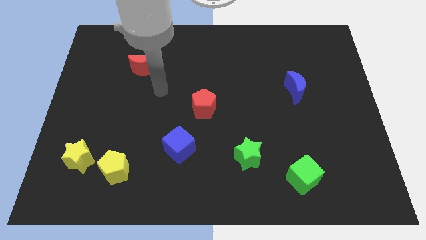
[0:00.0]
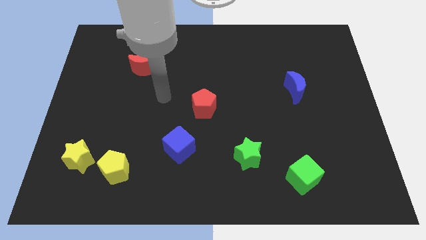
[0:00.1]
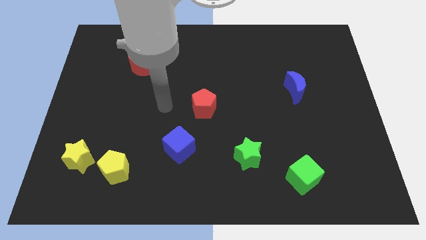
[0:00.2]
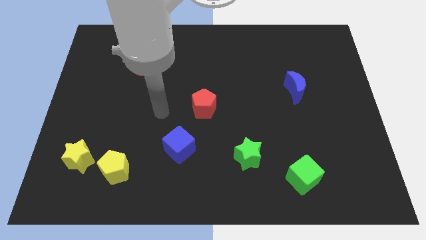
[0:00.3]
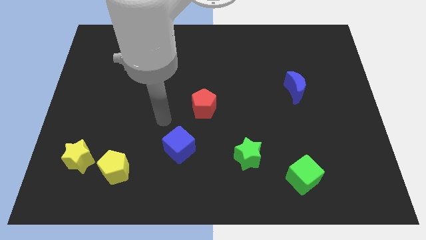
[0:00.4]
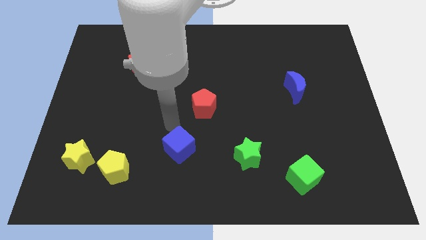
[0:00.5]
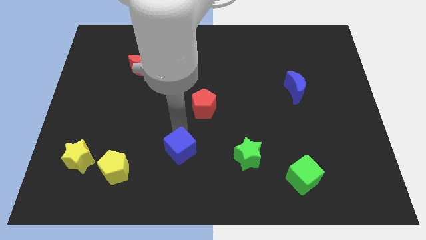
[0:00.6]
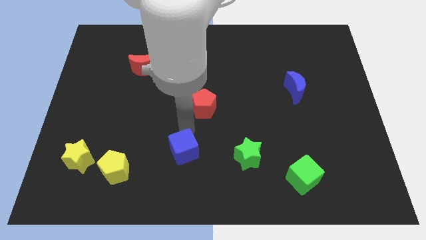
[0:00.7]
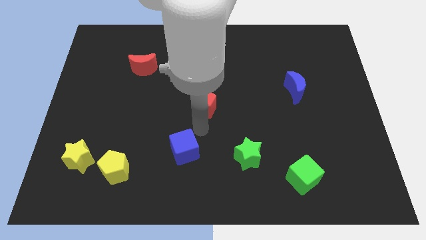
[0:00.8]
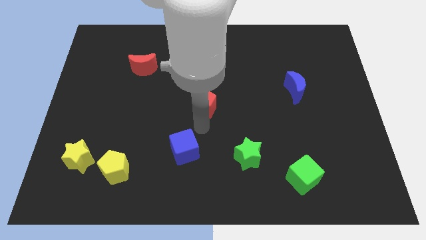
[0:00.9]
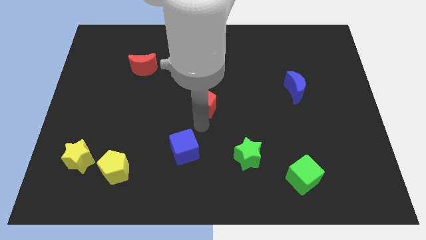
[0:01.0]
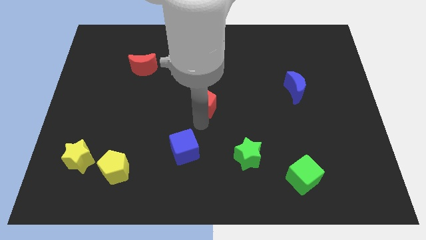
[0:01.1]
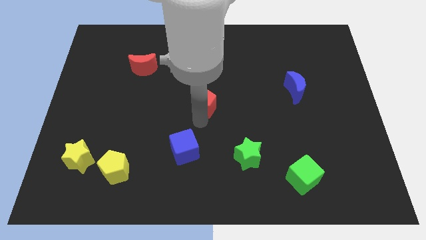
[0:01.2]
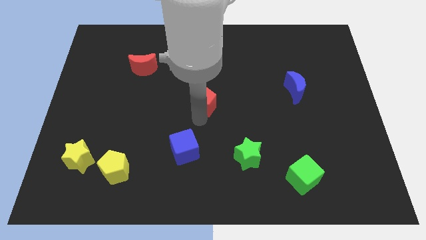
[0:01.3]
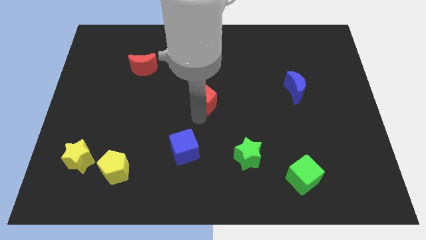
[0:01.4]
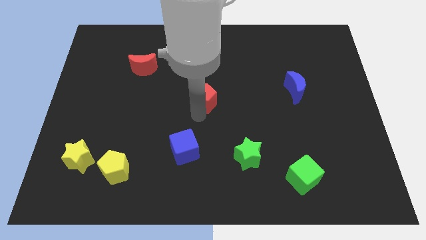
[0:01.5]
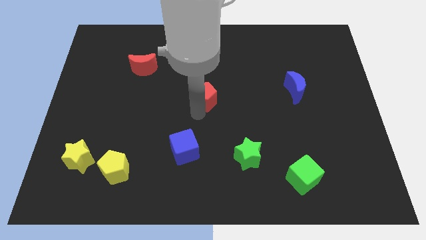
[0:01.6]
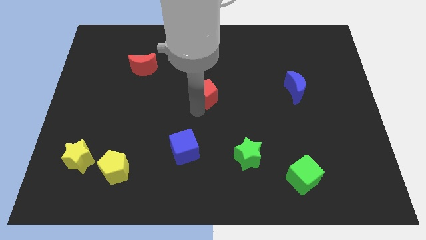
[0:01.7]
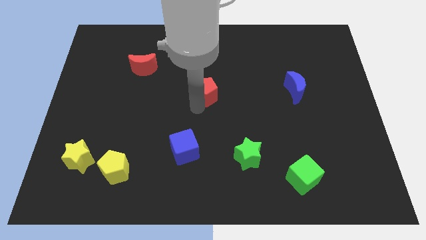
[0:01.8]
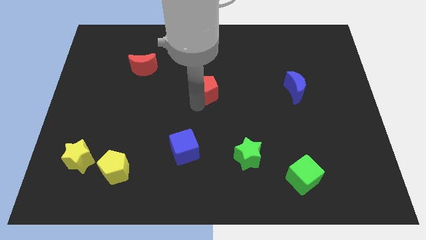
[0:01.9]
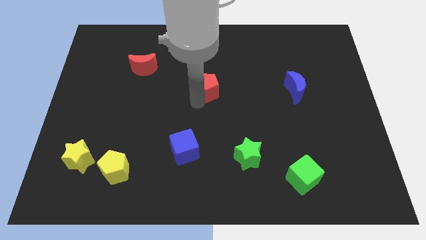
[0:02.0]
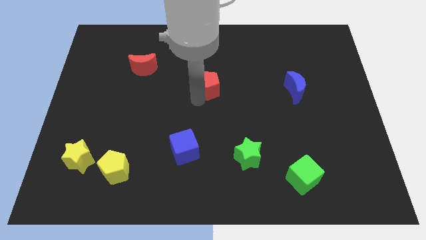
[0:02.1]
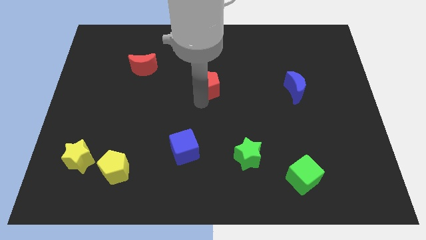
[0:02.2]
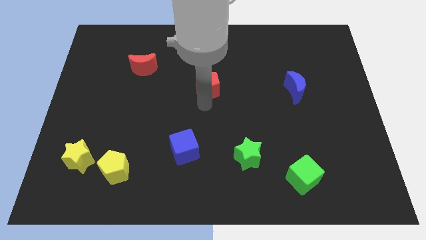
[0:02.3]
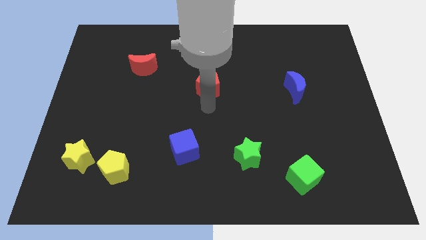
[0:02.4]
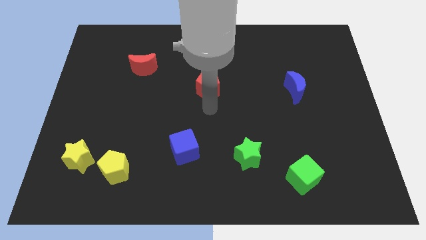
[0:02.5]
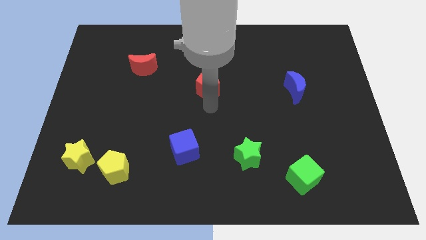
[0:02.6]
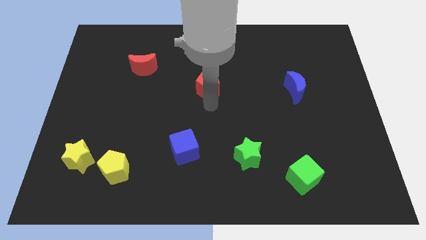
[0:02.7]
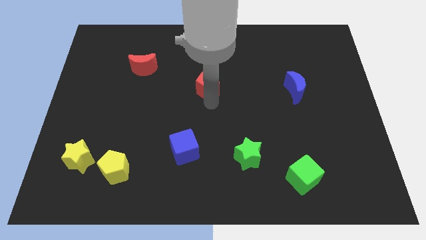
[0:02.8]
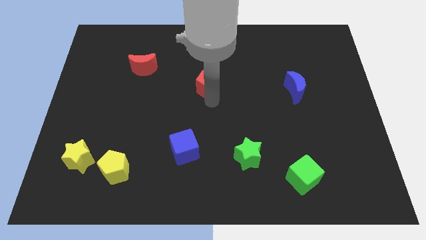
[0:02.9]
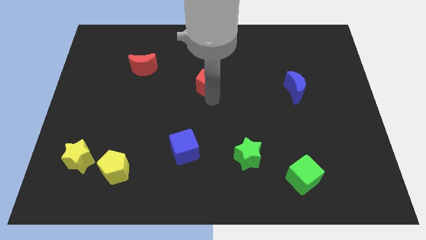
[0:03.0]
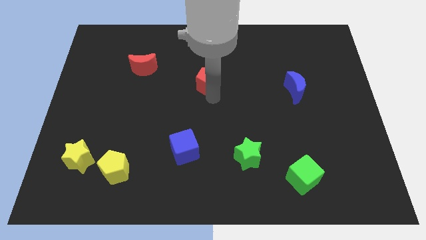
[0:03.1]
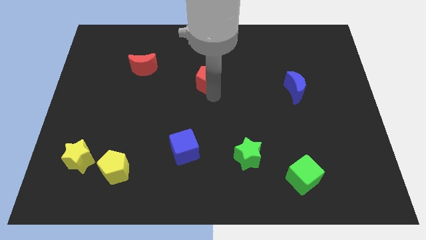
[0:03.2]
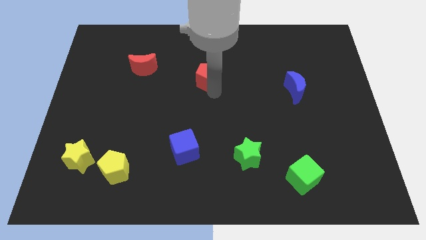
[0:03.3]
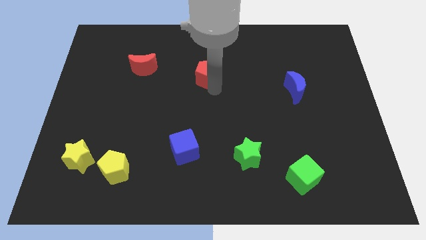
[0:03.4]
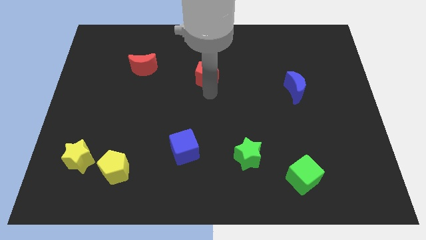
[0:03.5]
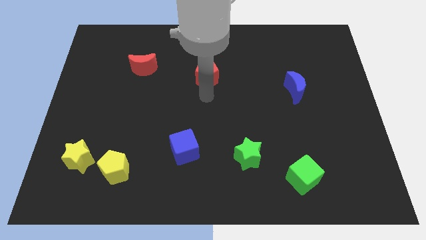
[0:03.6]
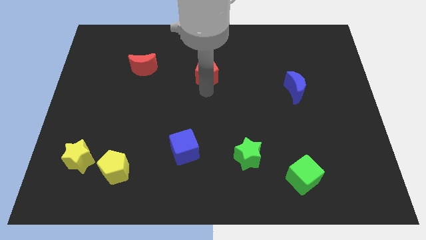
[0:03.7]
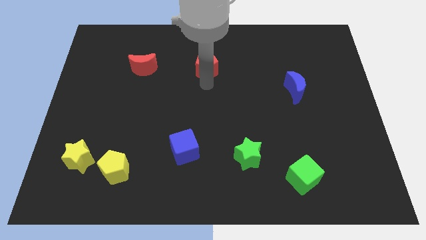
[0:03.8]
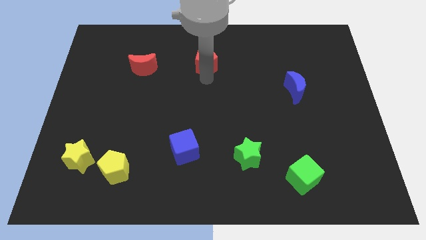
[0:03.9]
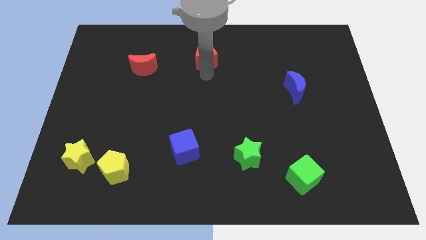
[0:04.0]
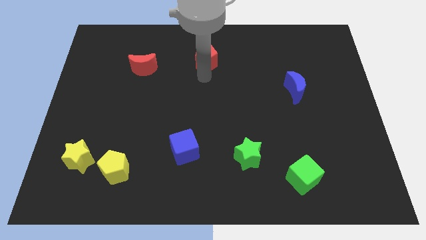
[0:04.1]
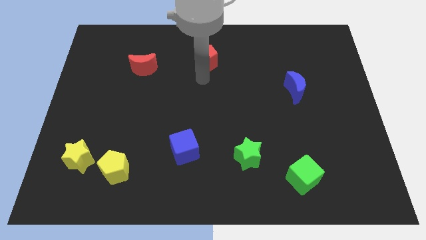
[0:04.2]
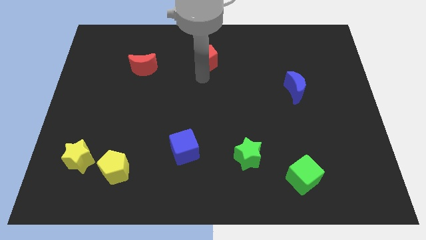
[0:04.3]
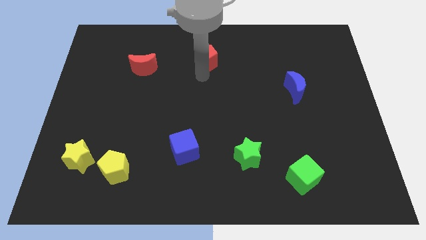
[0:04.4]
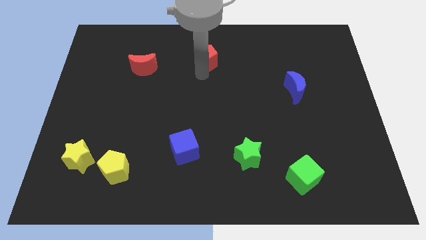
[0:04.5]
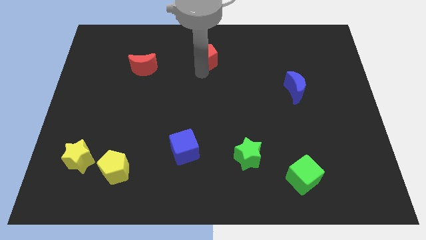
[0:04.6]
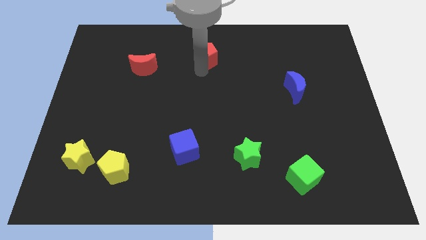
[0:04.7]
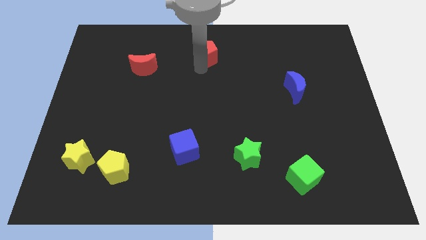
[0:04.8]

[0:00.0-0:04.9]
put the red pentagon to the top side
